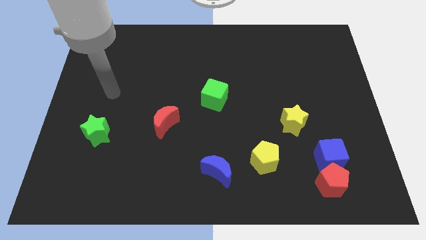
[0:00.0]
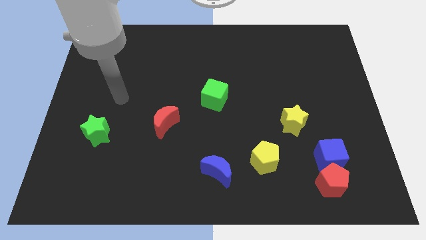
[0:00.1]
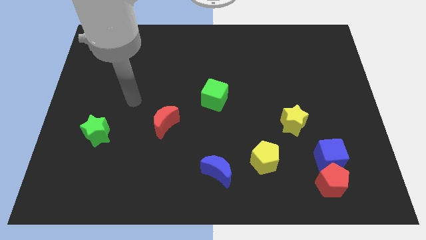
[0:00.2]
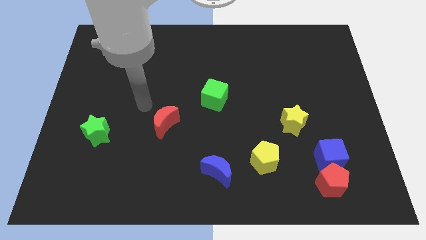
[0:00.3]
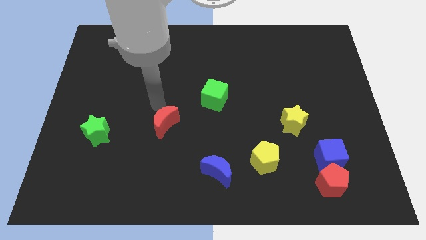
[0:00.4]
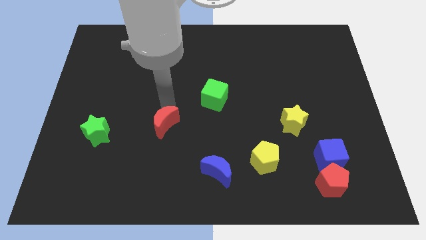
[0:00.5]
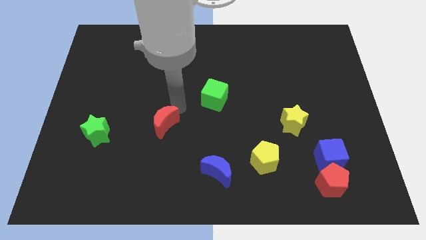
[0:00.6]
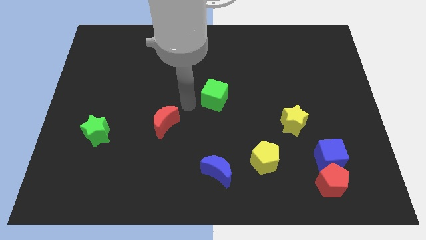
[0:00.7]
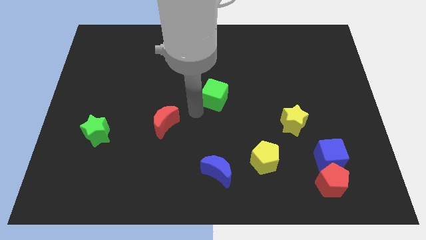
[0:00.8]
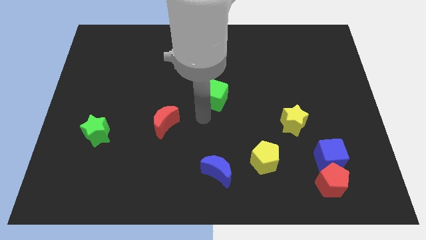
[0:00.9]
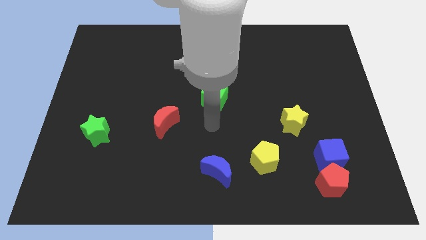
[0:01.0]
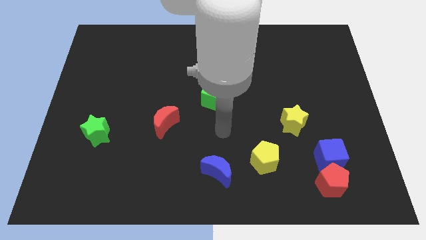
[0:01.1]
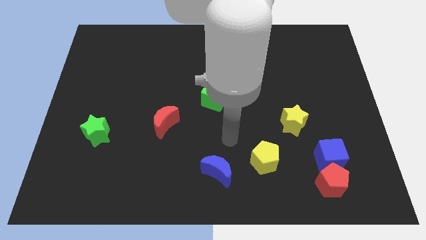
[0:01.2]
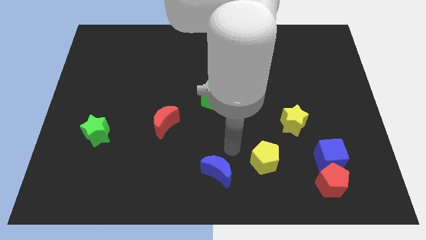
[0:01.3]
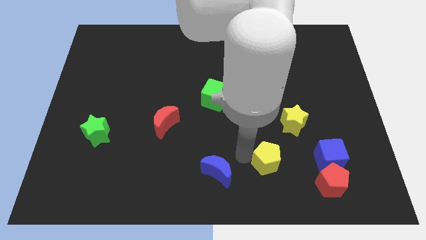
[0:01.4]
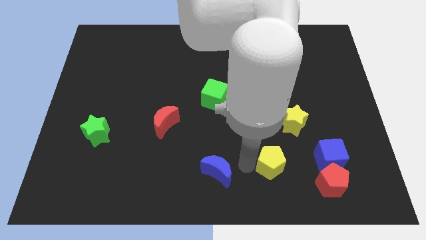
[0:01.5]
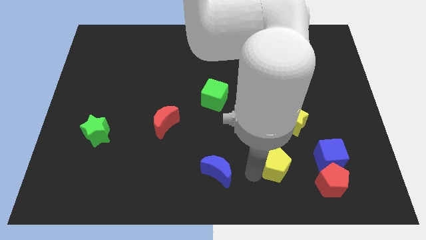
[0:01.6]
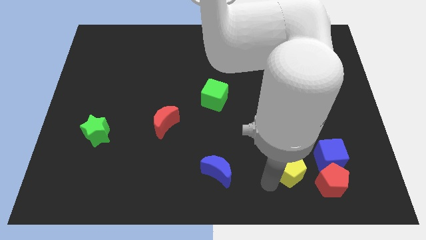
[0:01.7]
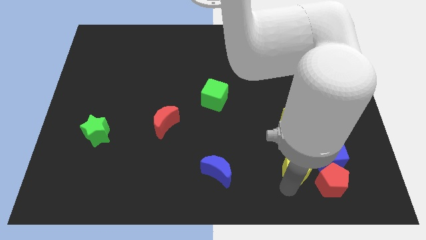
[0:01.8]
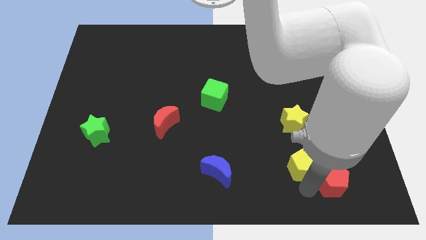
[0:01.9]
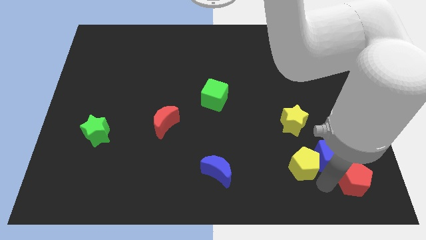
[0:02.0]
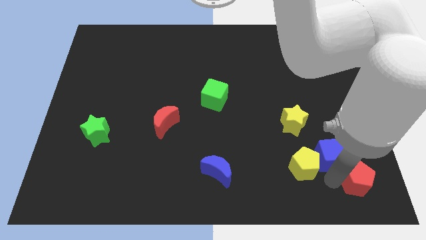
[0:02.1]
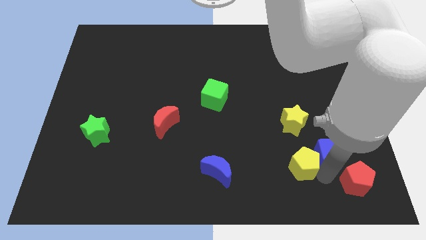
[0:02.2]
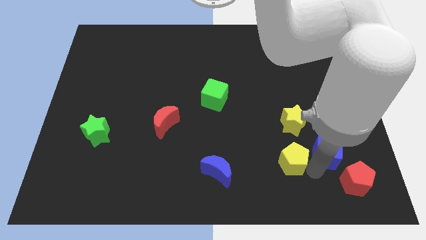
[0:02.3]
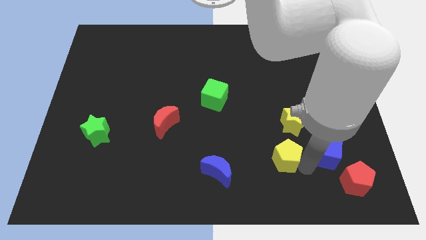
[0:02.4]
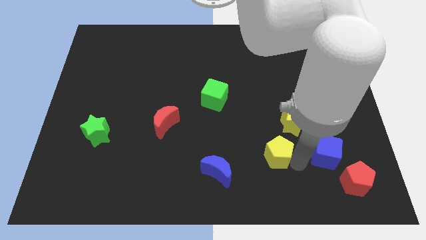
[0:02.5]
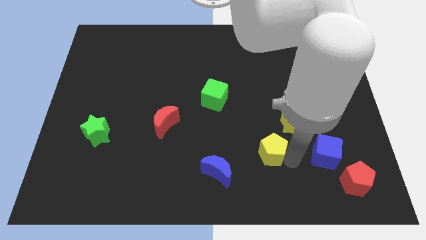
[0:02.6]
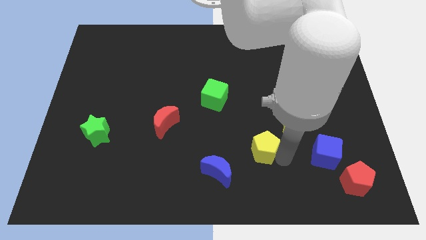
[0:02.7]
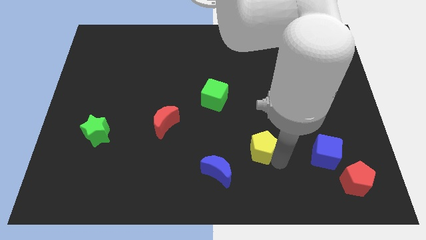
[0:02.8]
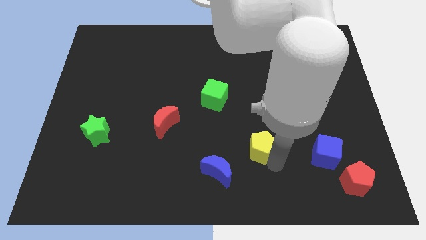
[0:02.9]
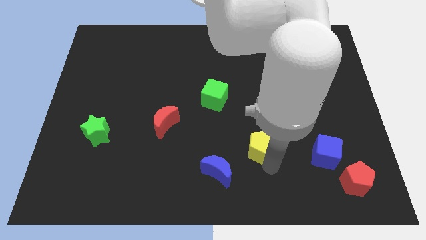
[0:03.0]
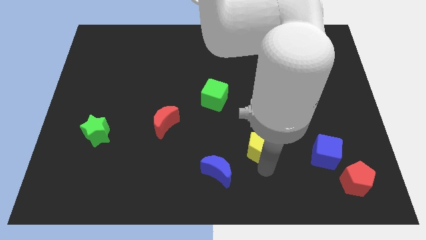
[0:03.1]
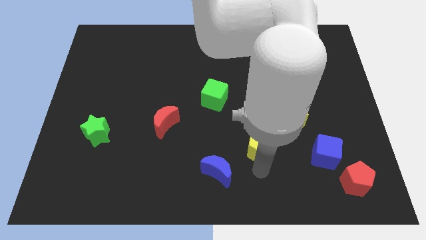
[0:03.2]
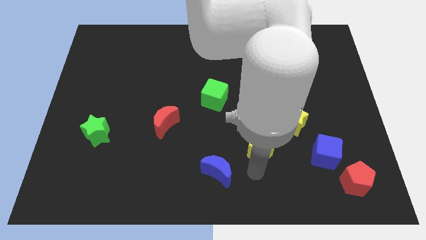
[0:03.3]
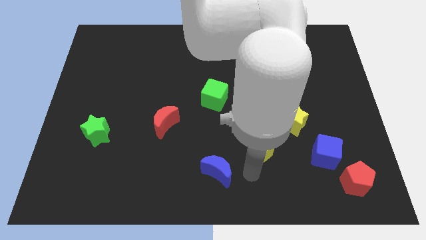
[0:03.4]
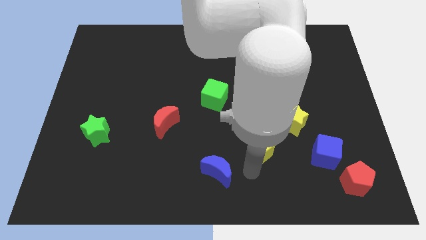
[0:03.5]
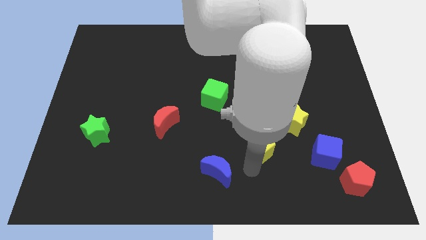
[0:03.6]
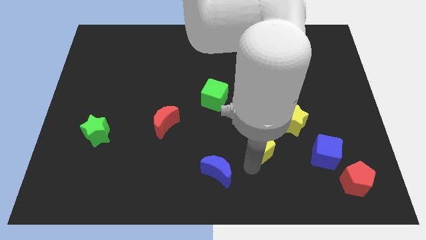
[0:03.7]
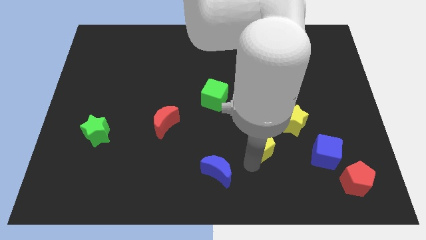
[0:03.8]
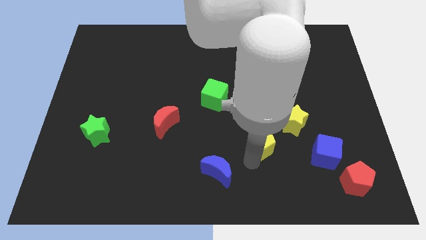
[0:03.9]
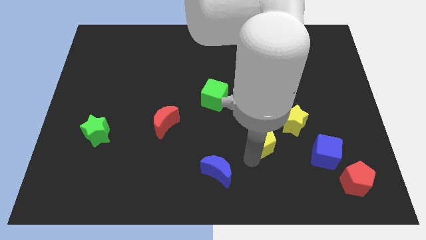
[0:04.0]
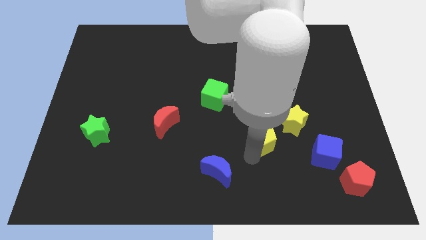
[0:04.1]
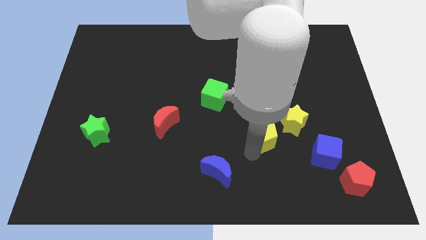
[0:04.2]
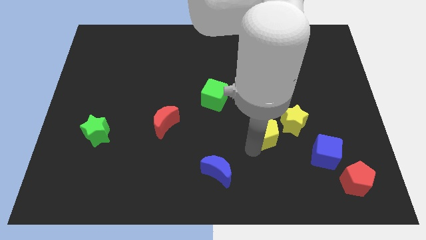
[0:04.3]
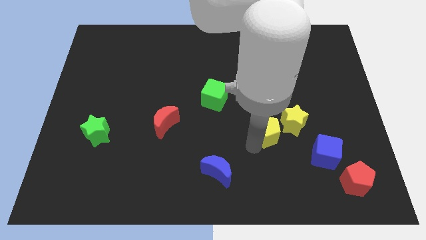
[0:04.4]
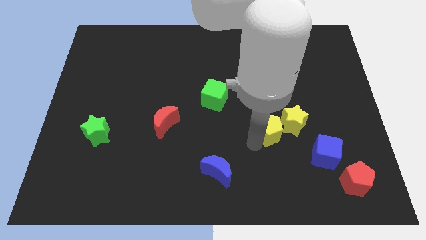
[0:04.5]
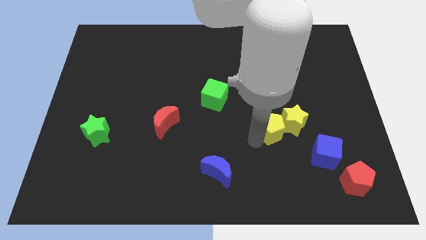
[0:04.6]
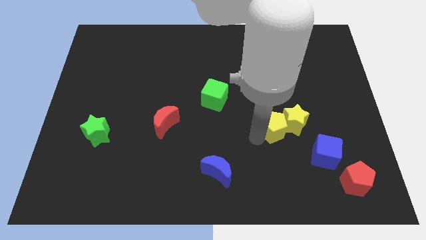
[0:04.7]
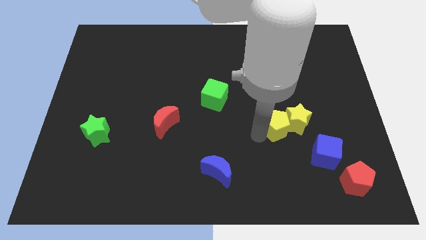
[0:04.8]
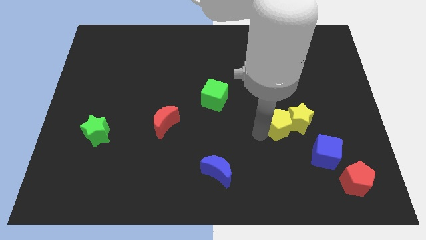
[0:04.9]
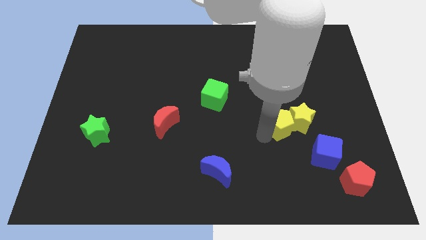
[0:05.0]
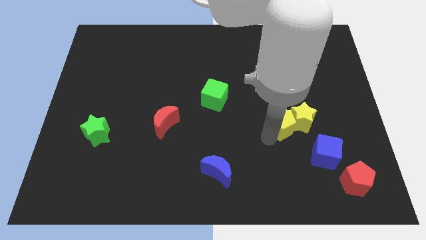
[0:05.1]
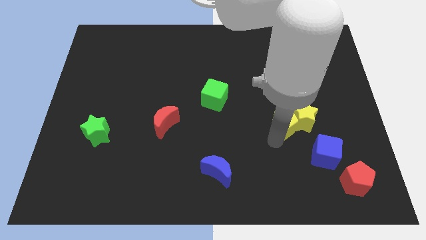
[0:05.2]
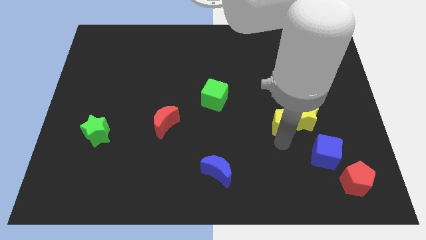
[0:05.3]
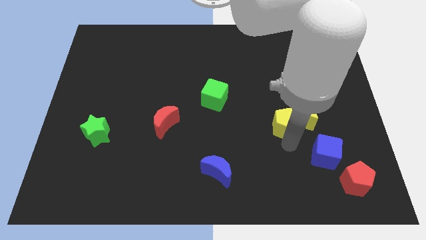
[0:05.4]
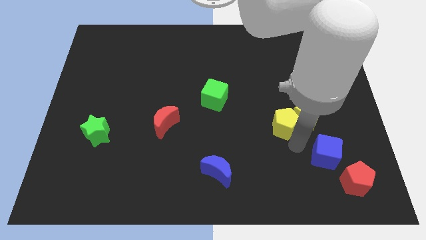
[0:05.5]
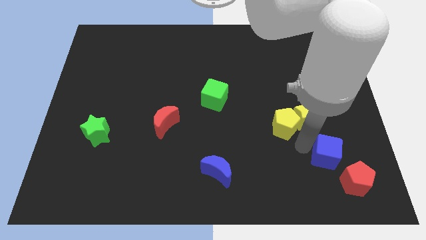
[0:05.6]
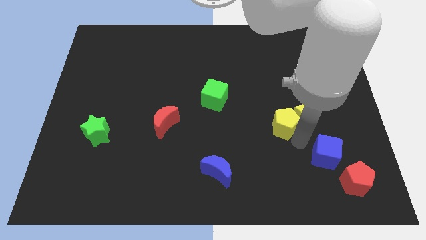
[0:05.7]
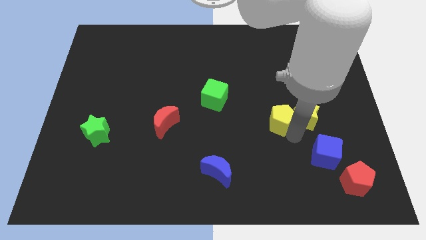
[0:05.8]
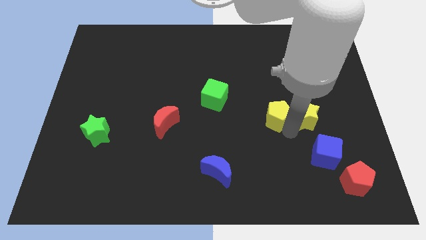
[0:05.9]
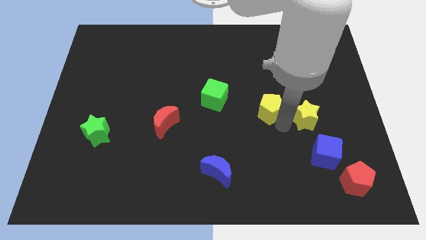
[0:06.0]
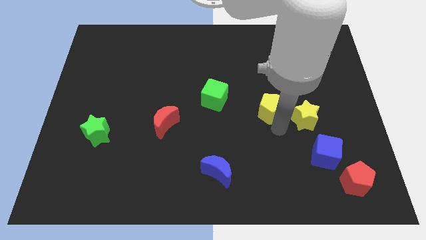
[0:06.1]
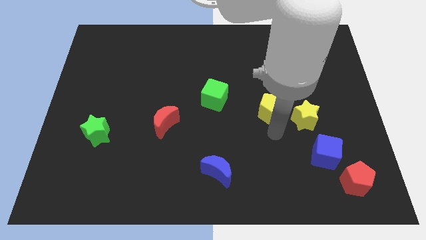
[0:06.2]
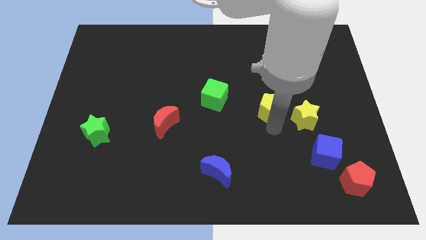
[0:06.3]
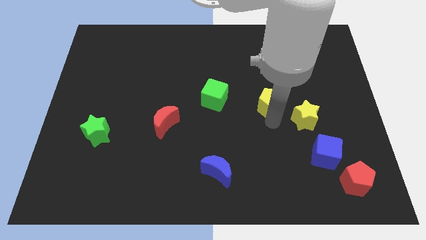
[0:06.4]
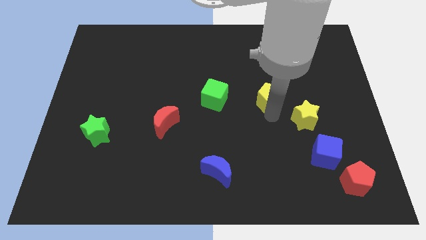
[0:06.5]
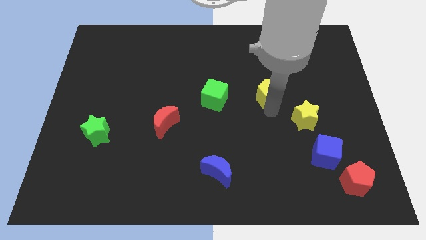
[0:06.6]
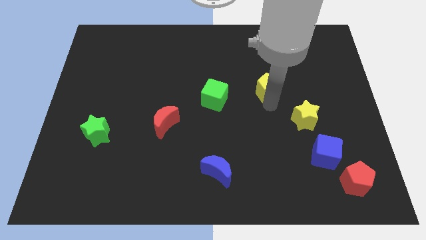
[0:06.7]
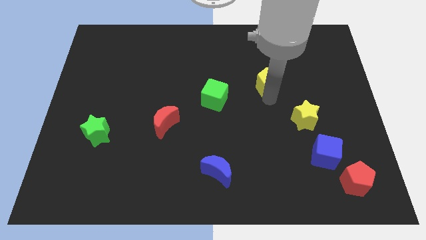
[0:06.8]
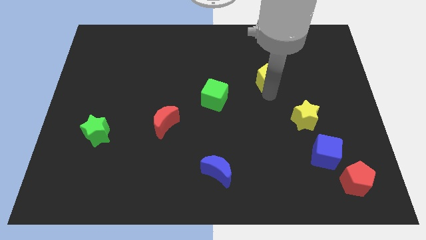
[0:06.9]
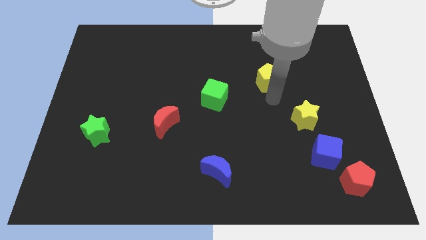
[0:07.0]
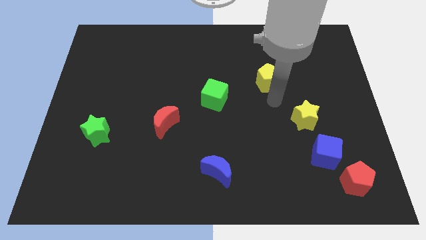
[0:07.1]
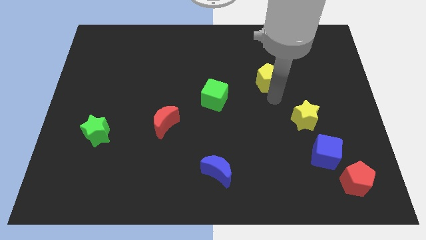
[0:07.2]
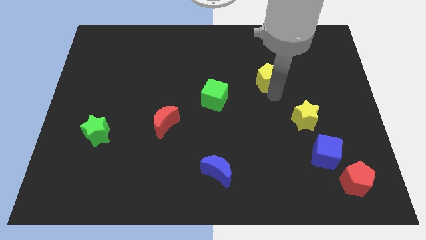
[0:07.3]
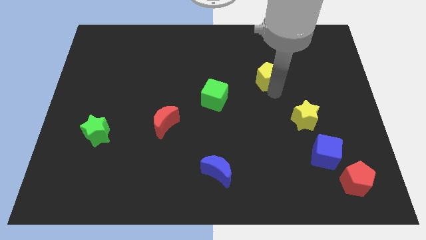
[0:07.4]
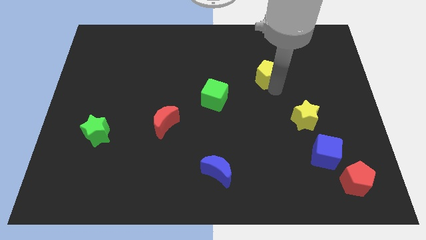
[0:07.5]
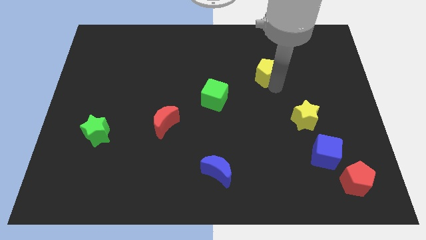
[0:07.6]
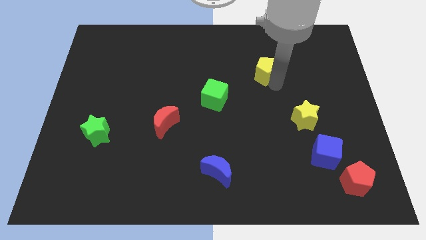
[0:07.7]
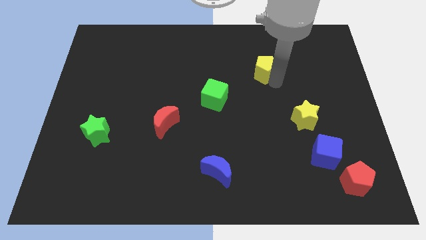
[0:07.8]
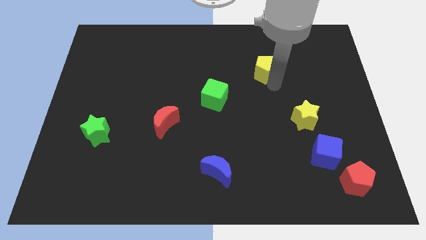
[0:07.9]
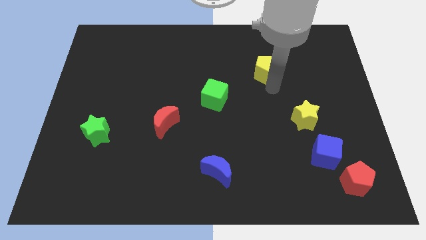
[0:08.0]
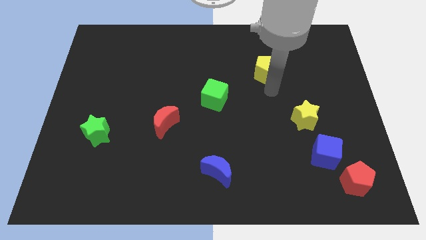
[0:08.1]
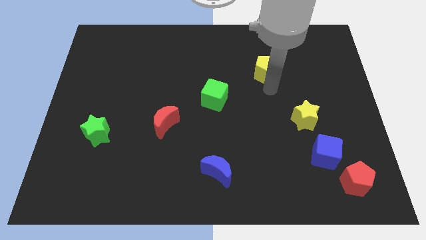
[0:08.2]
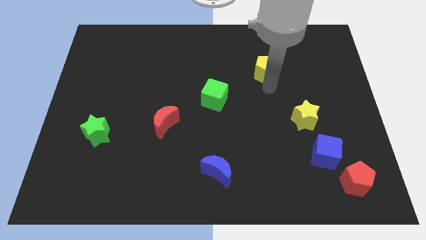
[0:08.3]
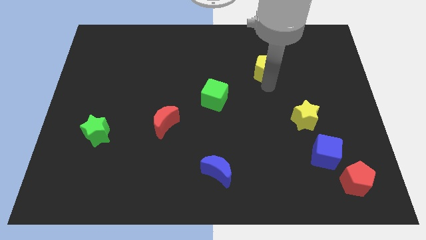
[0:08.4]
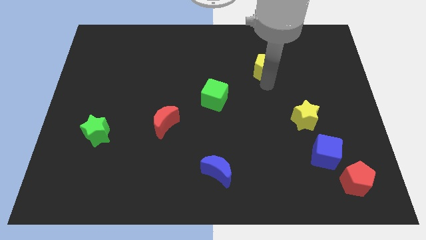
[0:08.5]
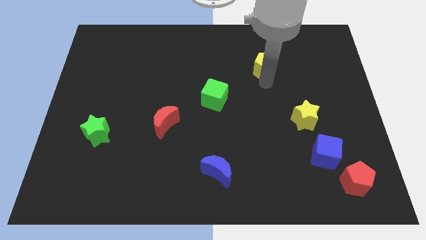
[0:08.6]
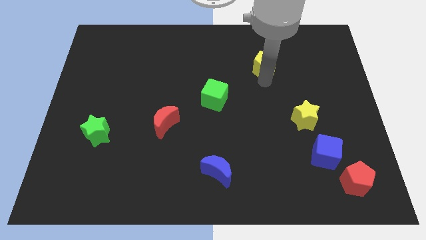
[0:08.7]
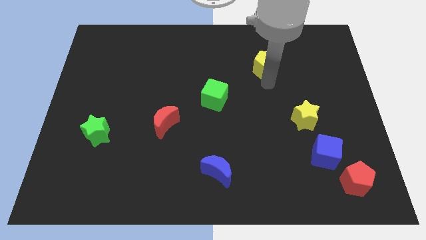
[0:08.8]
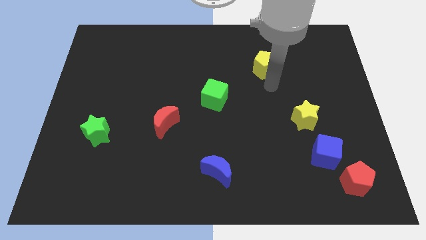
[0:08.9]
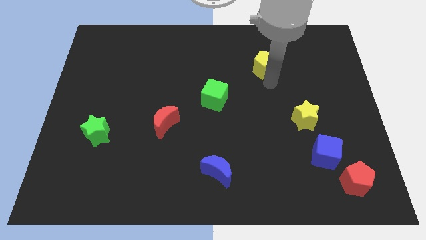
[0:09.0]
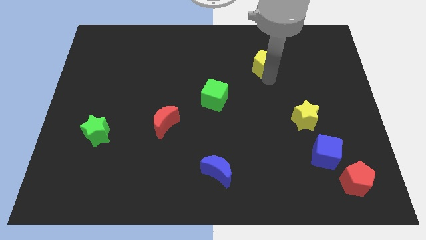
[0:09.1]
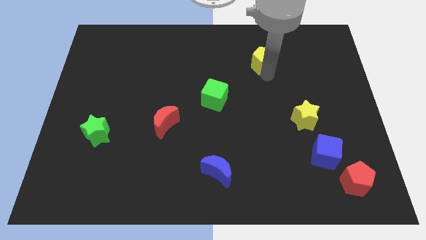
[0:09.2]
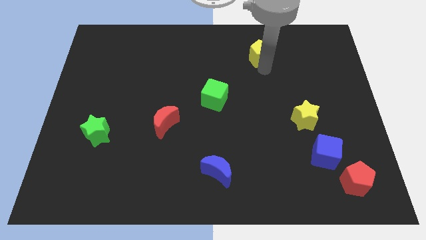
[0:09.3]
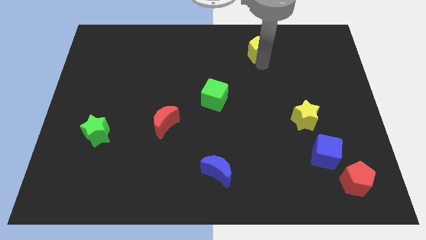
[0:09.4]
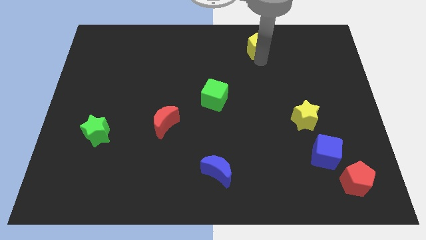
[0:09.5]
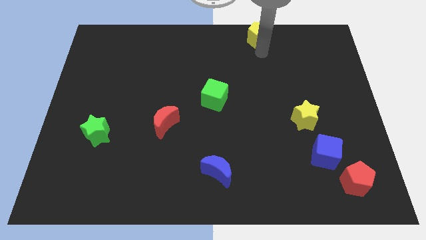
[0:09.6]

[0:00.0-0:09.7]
put the yellow pentagon to the towards your base
